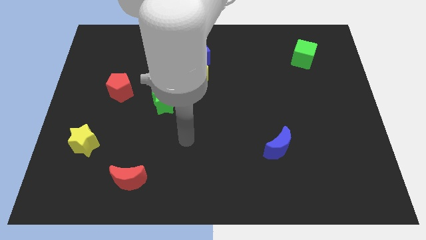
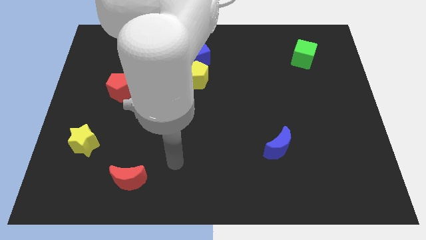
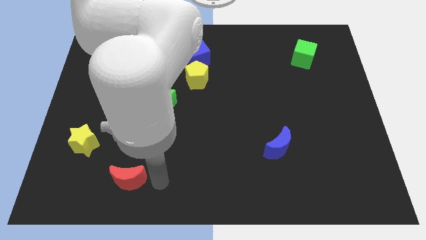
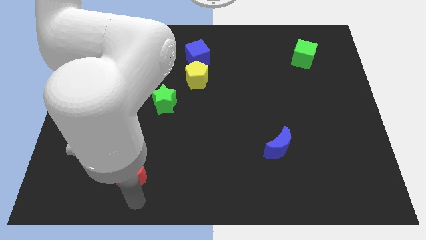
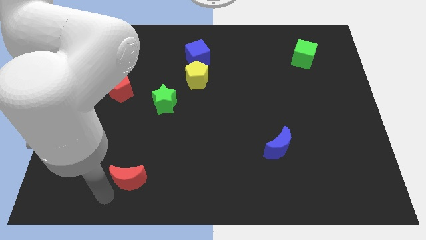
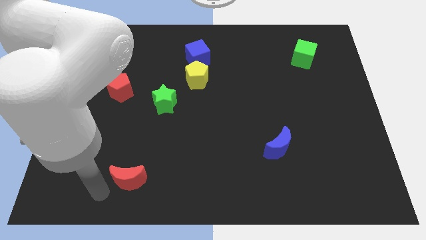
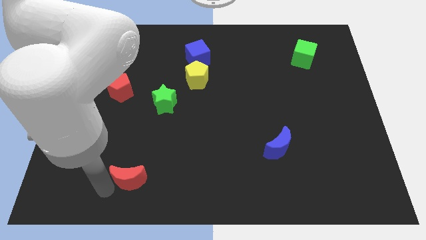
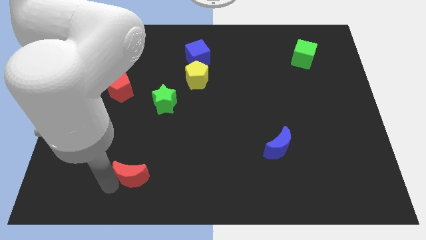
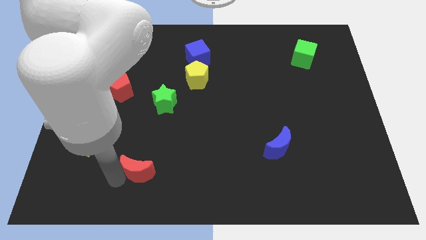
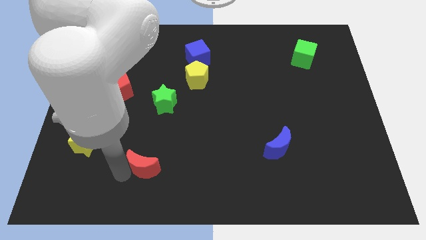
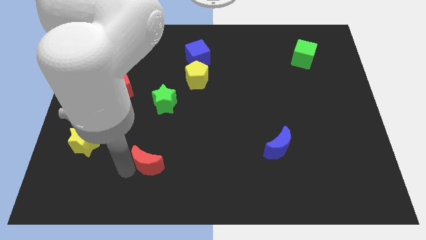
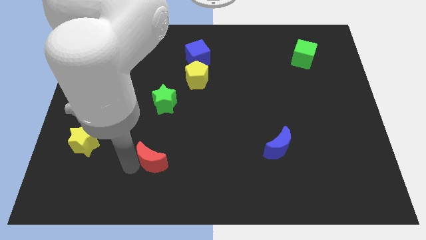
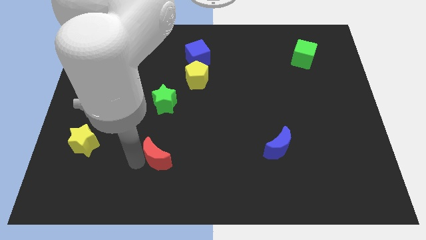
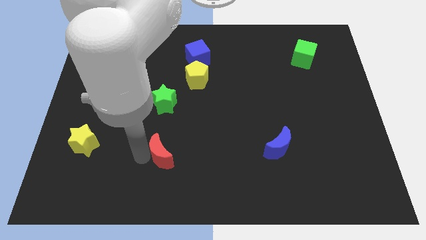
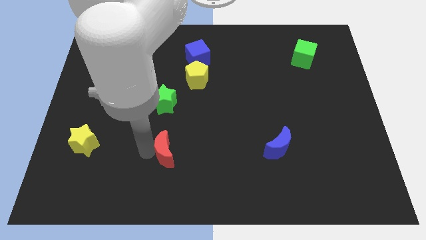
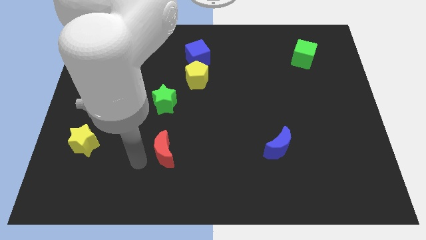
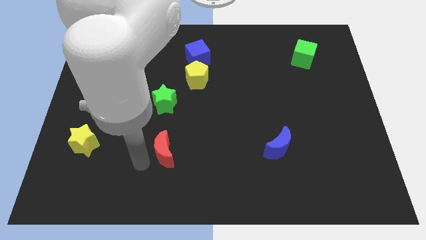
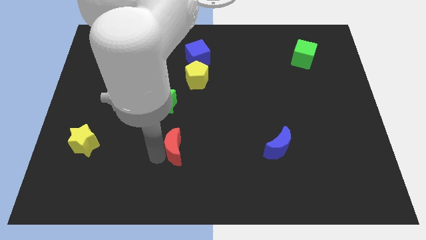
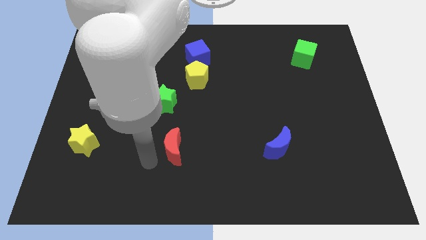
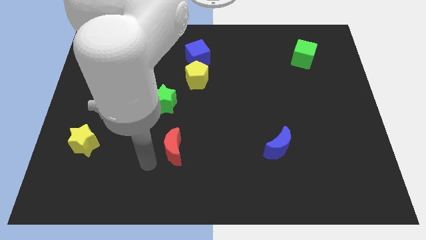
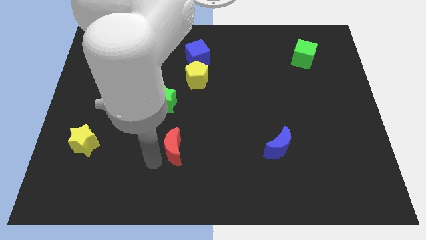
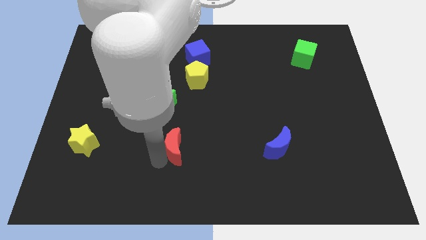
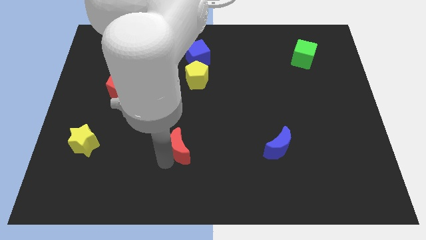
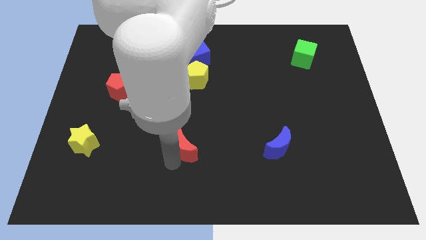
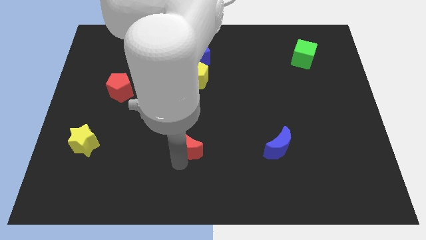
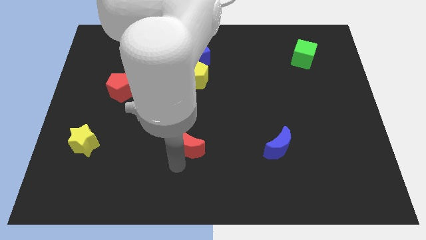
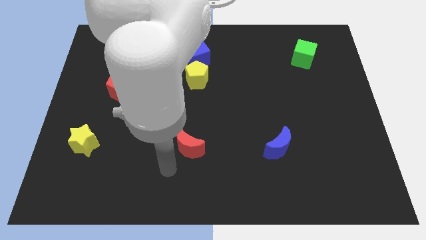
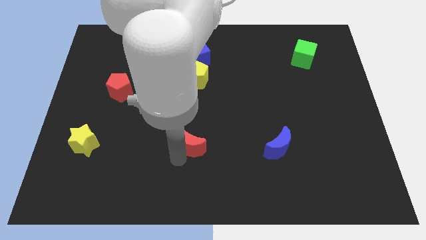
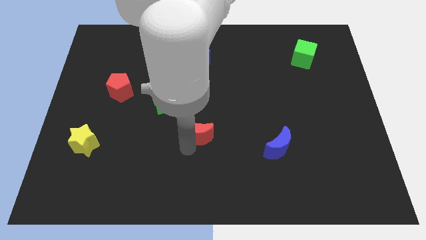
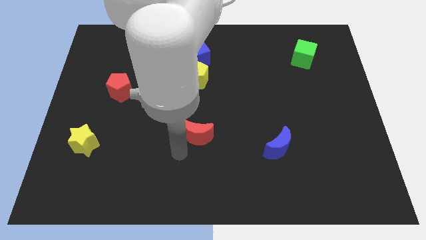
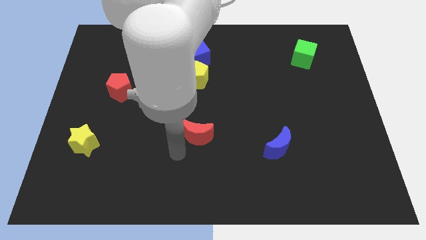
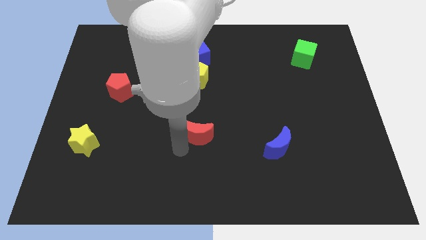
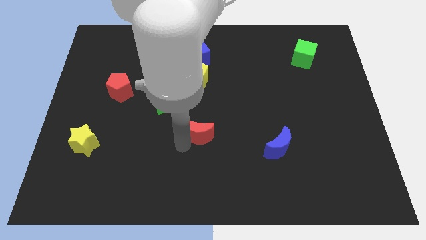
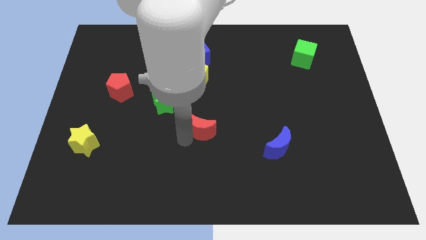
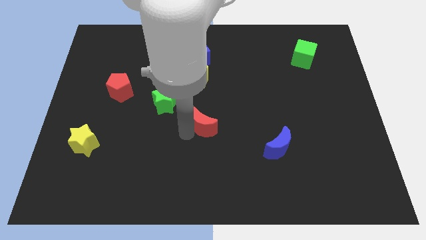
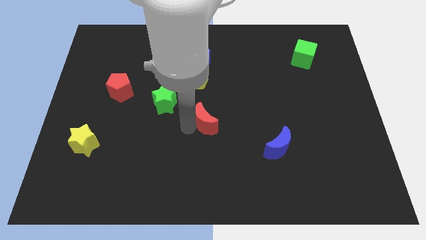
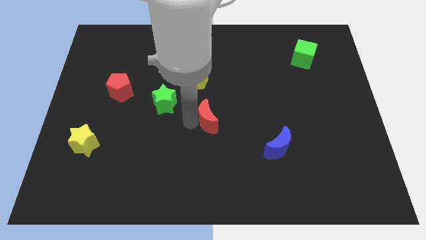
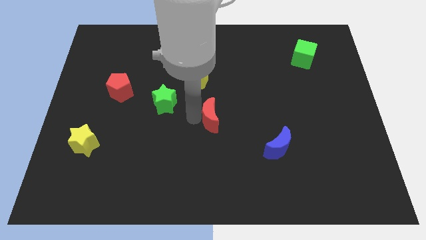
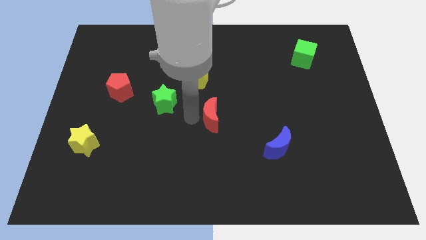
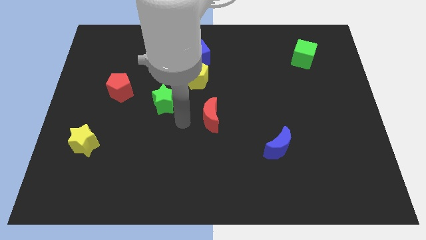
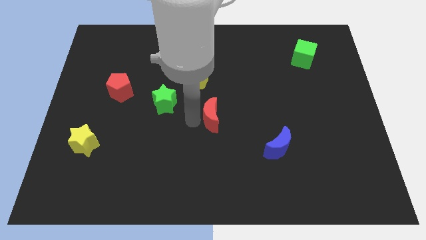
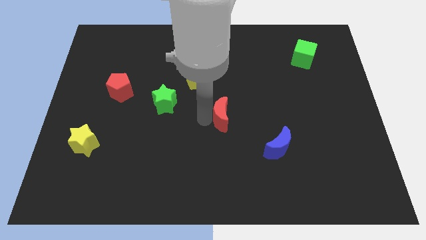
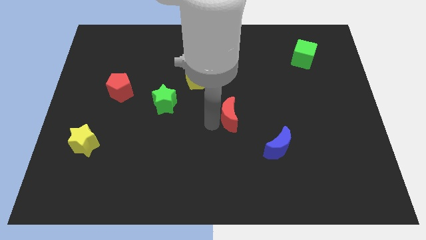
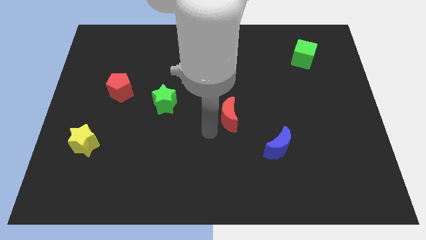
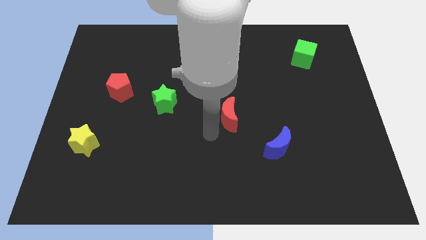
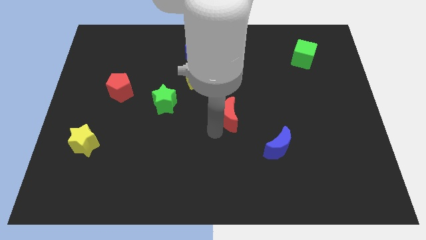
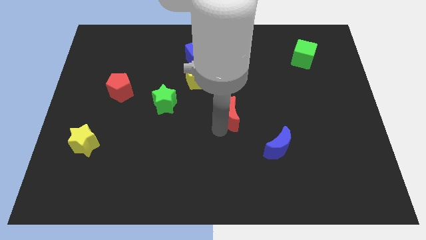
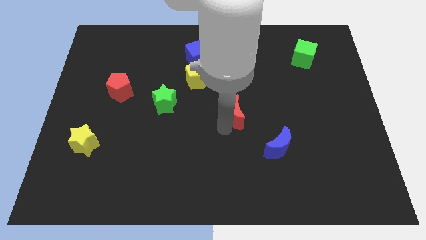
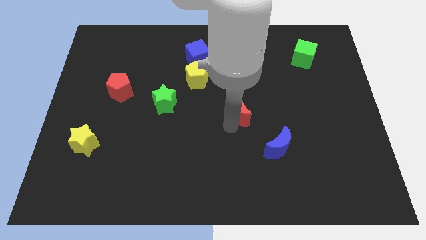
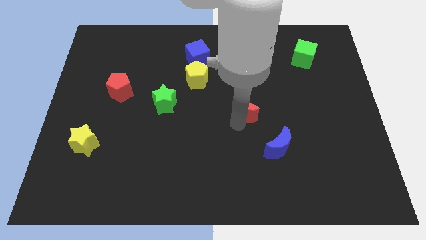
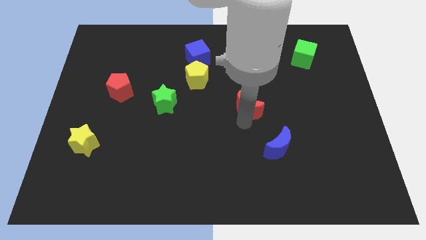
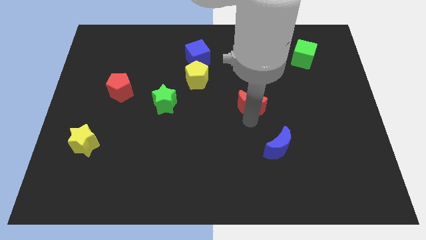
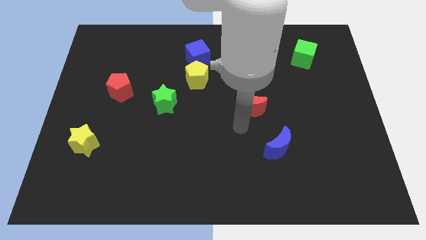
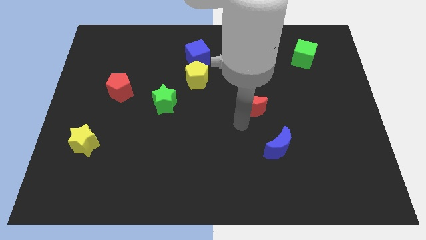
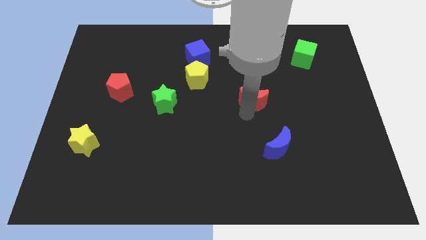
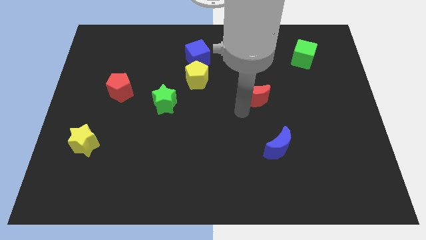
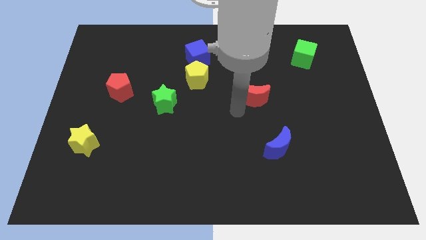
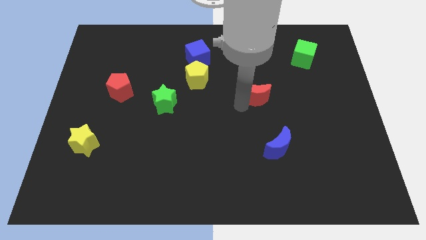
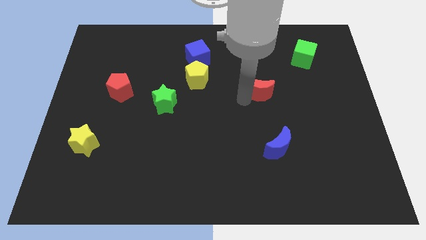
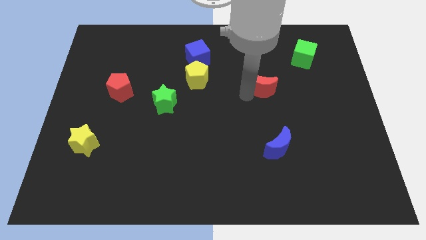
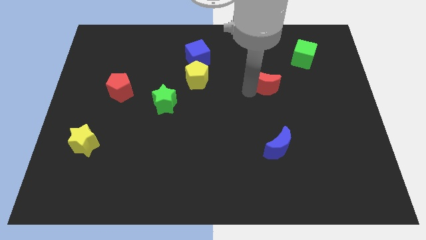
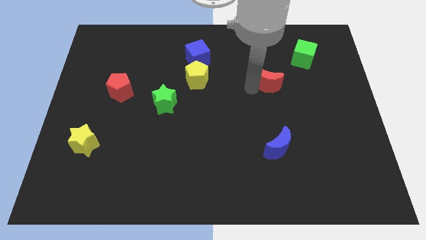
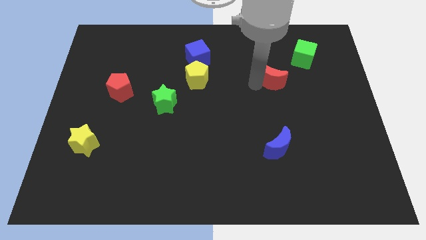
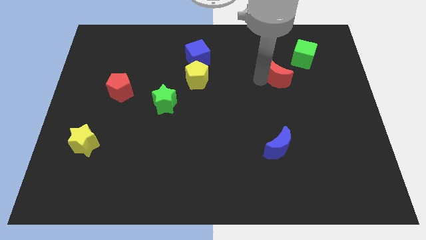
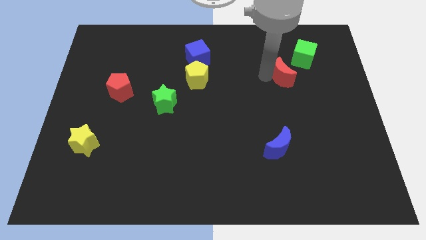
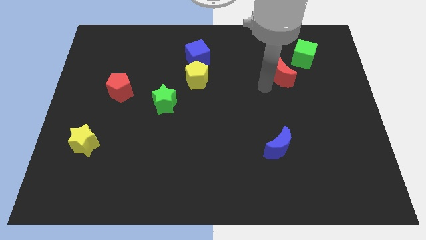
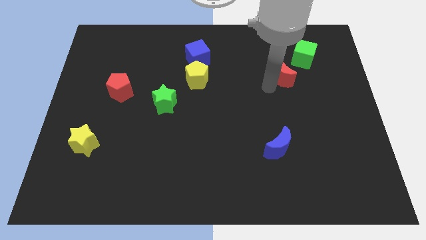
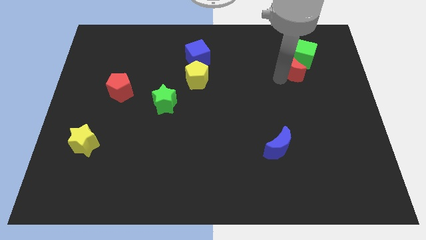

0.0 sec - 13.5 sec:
put the red moon to the green cube

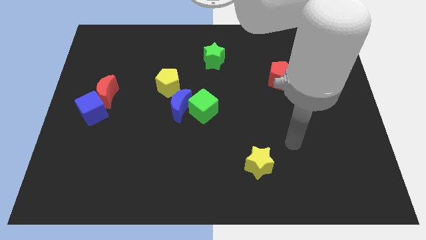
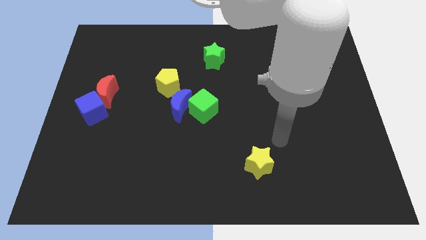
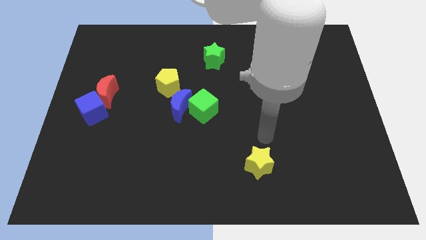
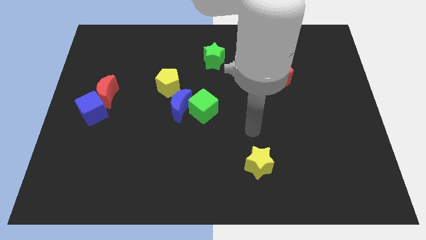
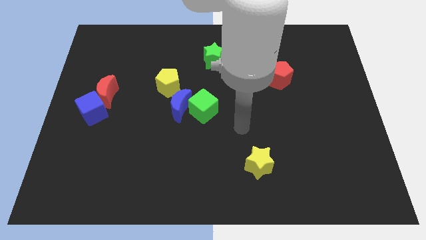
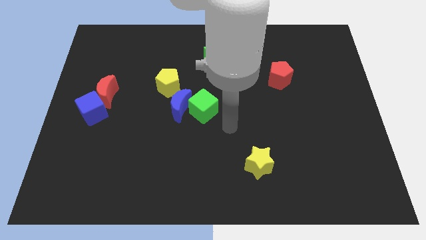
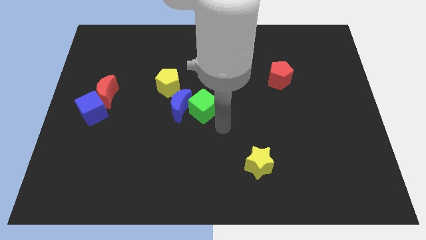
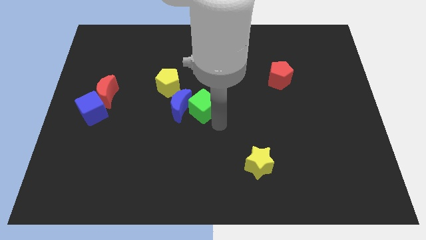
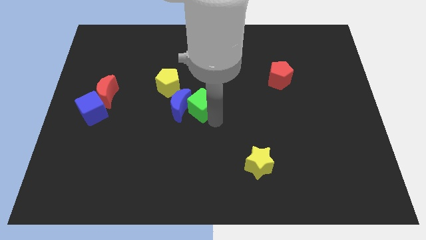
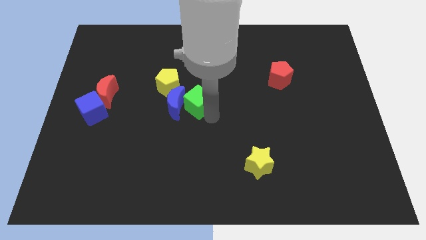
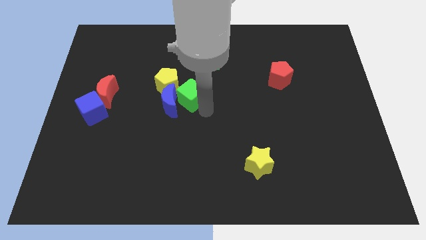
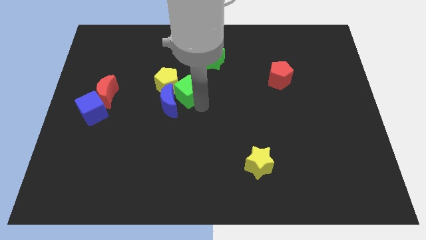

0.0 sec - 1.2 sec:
move the green cube close to the yellow pentagon
